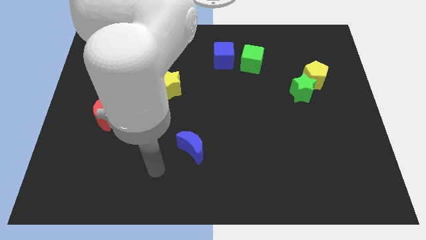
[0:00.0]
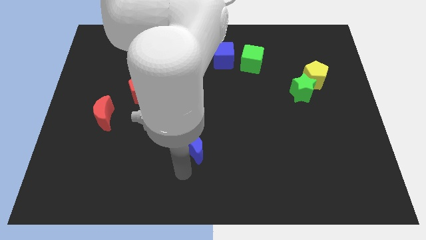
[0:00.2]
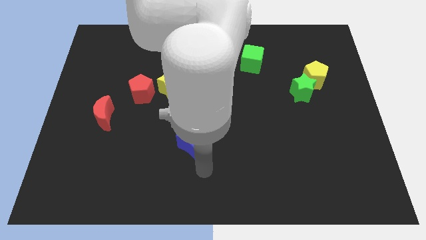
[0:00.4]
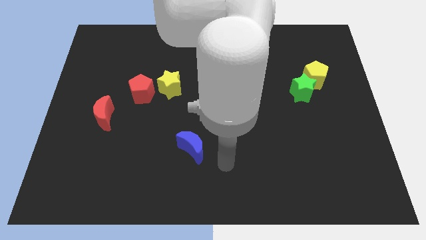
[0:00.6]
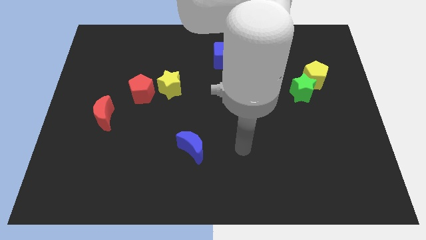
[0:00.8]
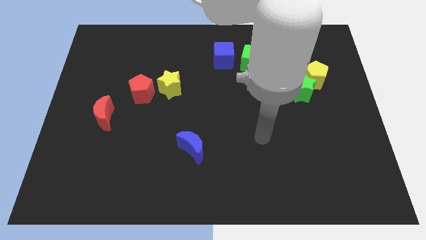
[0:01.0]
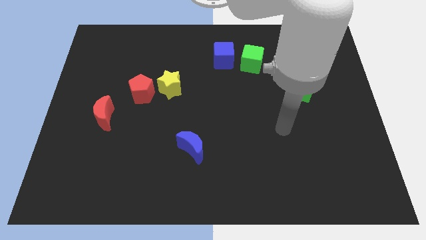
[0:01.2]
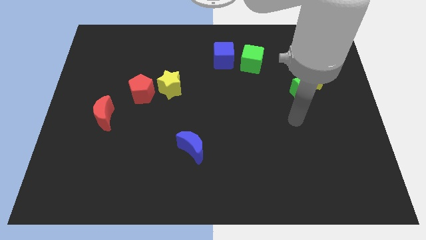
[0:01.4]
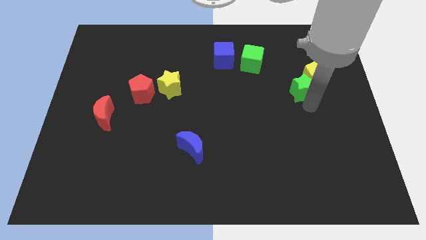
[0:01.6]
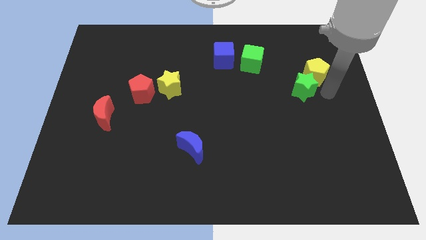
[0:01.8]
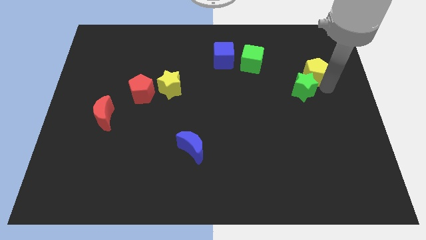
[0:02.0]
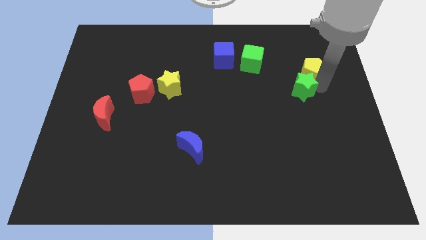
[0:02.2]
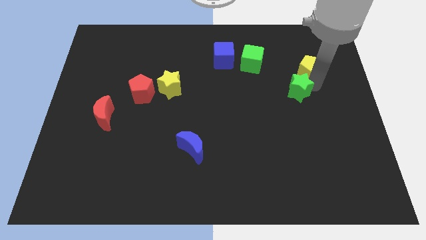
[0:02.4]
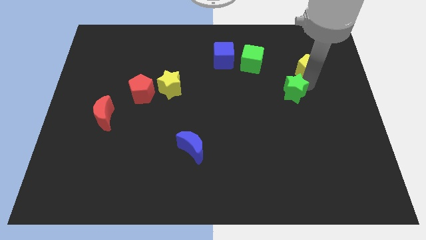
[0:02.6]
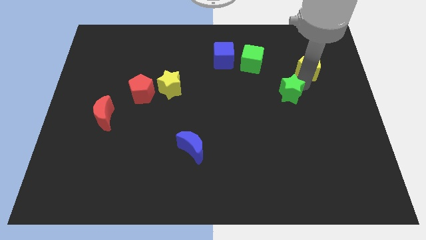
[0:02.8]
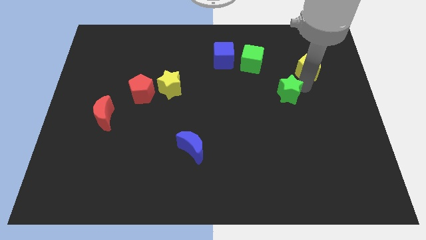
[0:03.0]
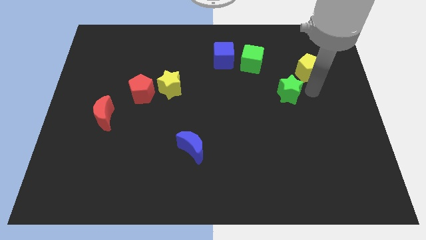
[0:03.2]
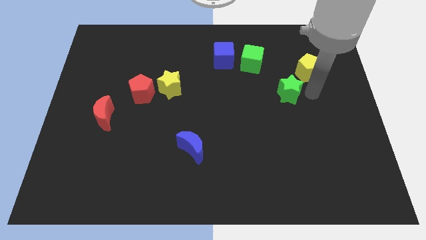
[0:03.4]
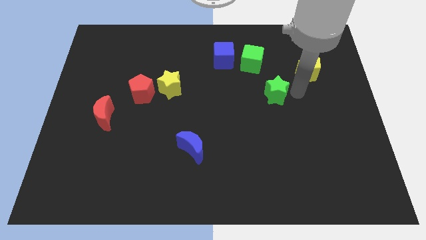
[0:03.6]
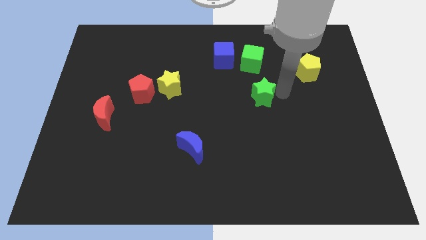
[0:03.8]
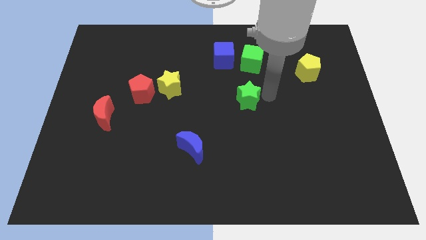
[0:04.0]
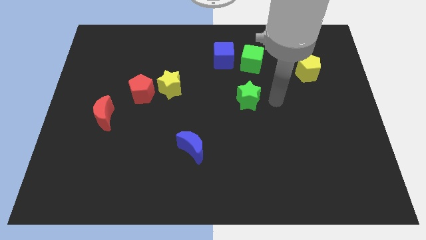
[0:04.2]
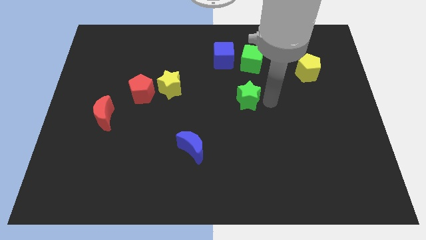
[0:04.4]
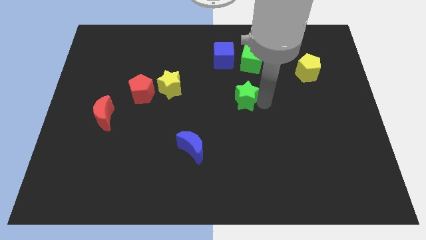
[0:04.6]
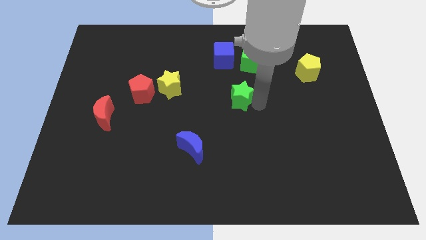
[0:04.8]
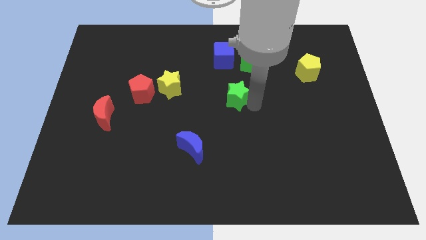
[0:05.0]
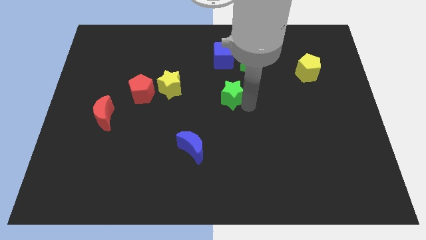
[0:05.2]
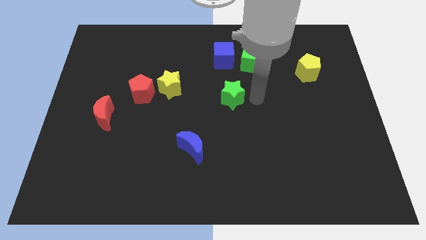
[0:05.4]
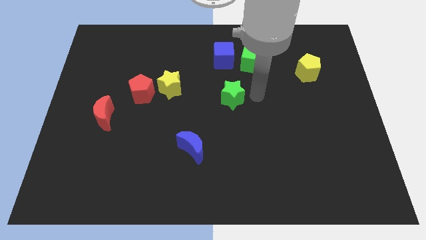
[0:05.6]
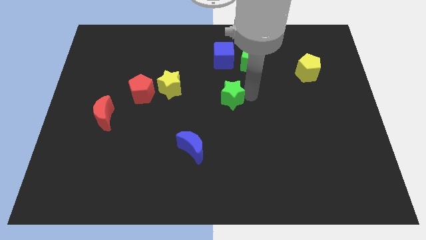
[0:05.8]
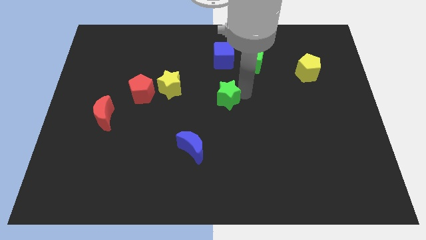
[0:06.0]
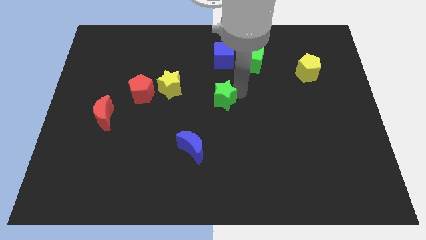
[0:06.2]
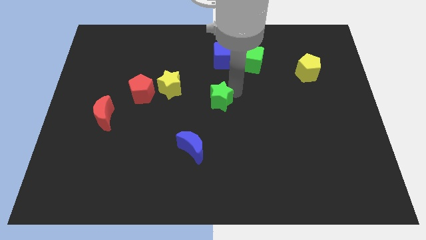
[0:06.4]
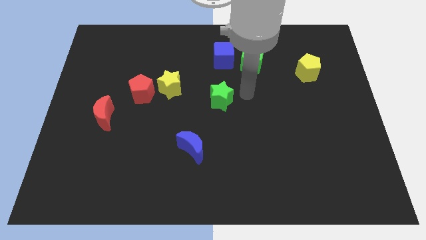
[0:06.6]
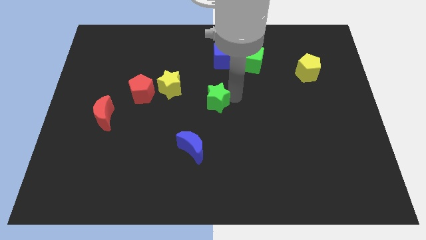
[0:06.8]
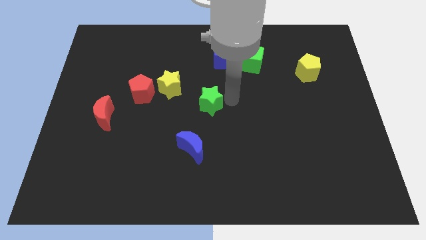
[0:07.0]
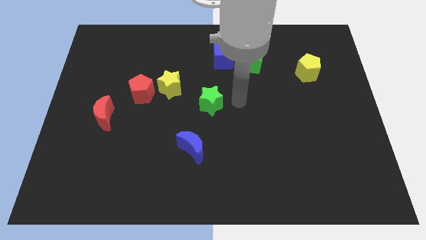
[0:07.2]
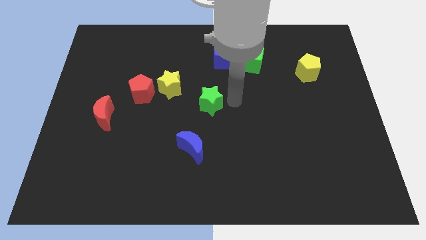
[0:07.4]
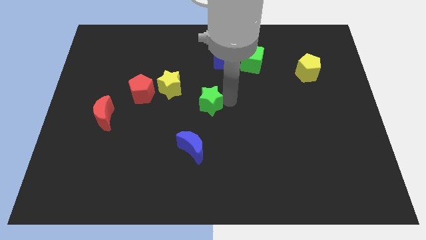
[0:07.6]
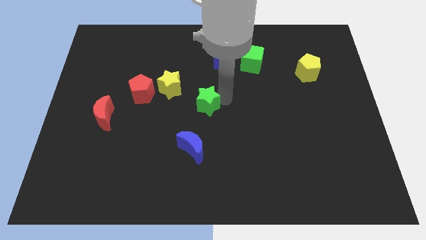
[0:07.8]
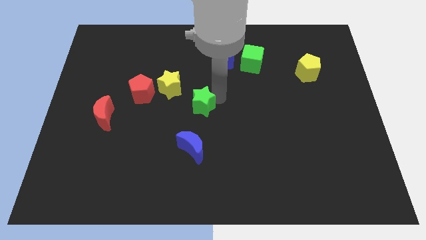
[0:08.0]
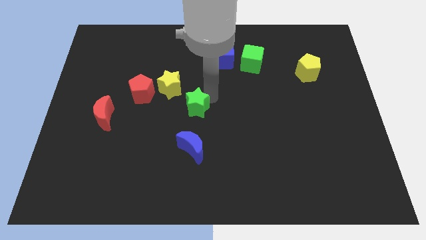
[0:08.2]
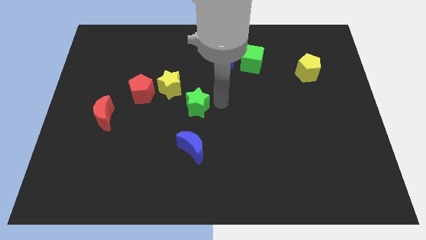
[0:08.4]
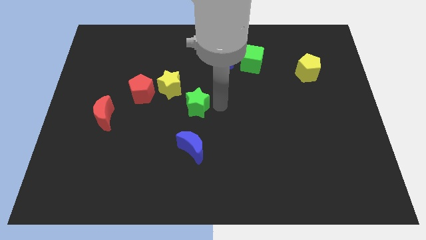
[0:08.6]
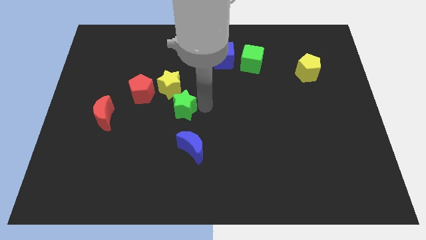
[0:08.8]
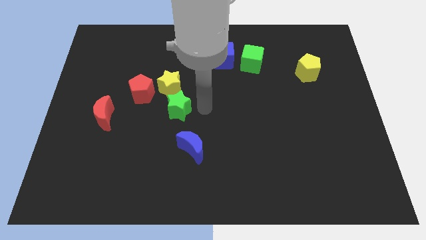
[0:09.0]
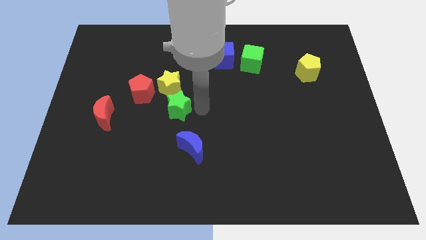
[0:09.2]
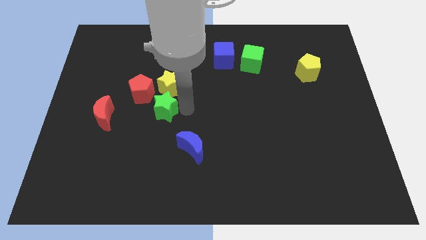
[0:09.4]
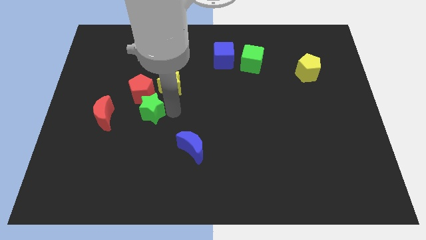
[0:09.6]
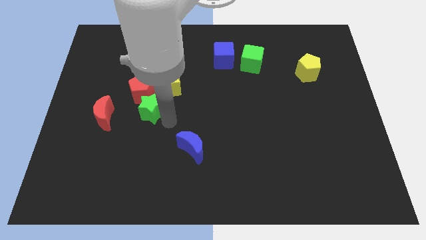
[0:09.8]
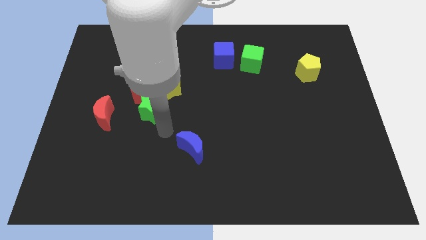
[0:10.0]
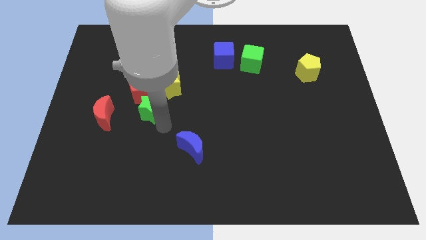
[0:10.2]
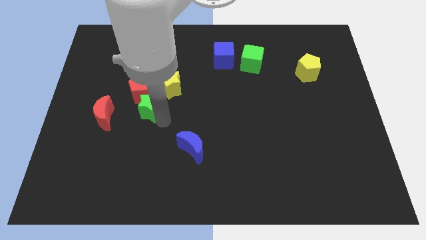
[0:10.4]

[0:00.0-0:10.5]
move the green star close to the red pentagon

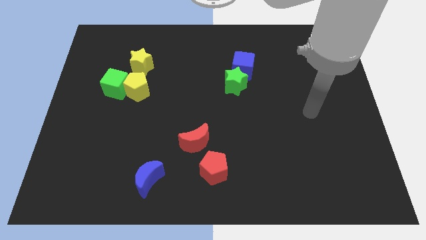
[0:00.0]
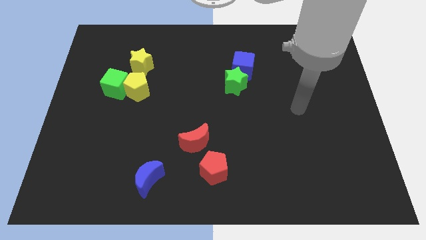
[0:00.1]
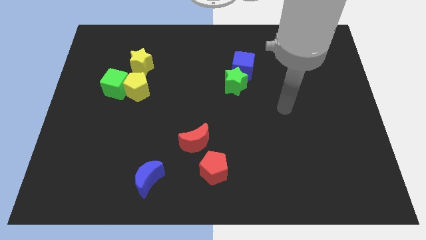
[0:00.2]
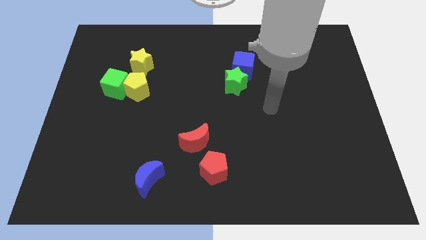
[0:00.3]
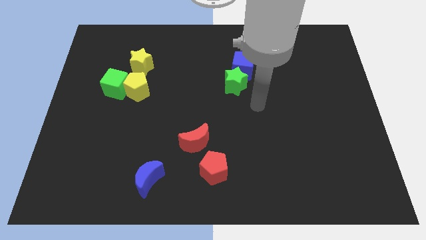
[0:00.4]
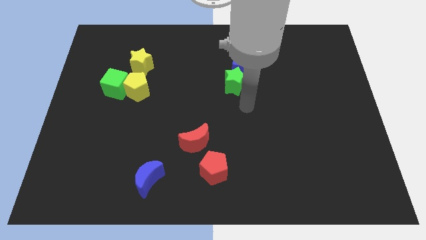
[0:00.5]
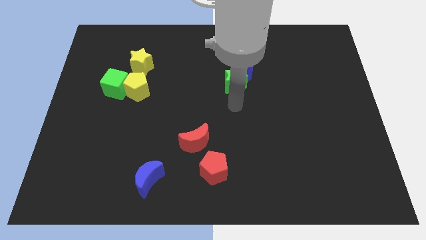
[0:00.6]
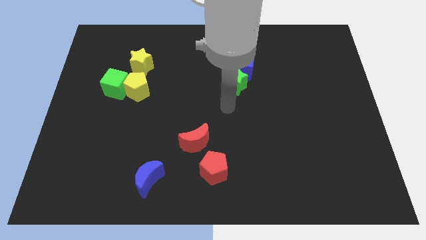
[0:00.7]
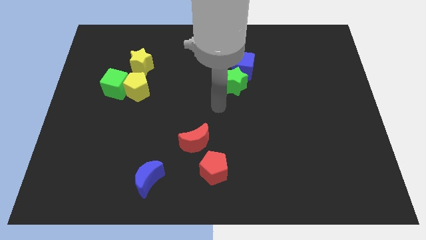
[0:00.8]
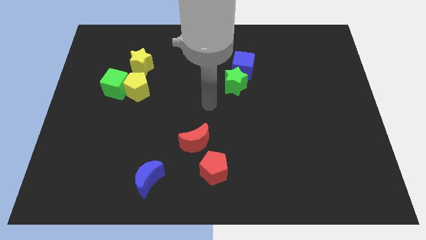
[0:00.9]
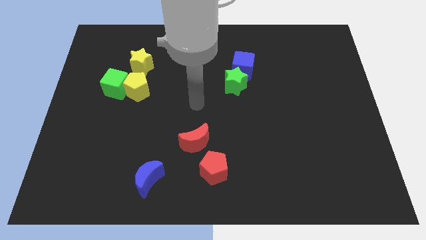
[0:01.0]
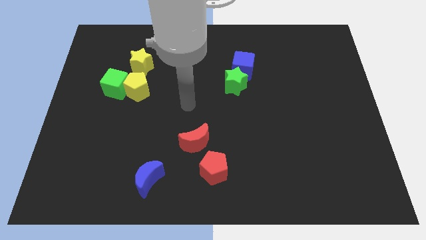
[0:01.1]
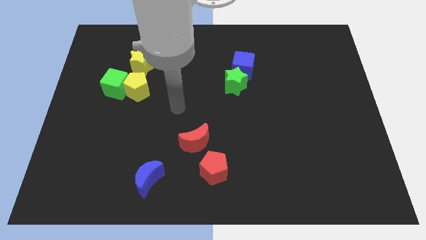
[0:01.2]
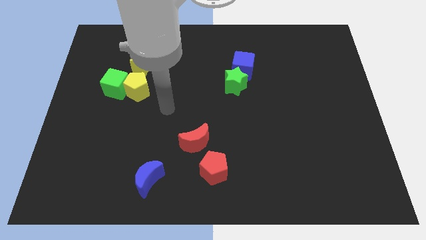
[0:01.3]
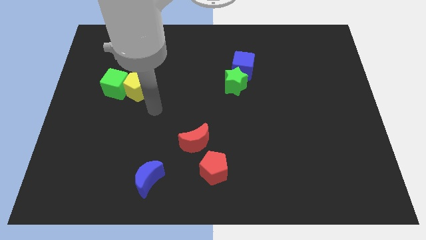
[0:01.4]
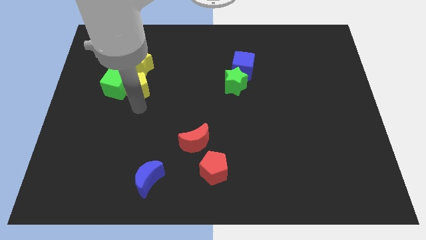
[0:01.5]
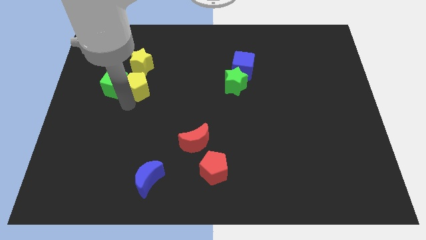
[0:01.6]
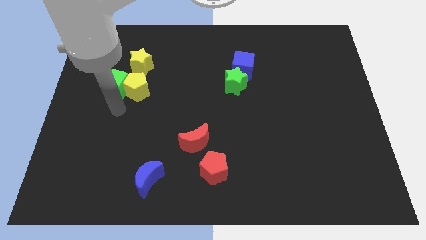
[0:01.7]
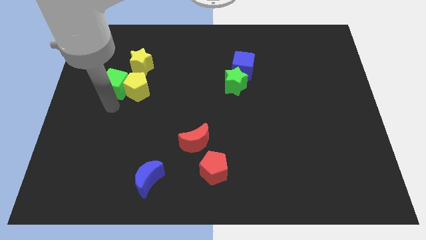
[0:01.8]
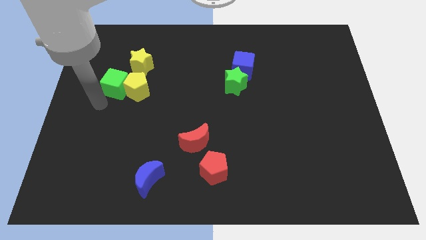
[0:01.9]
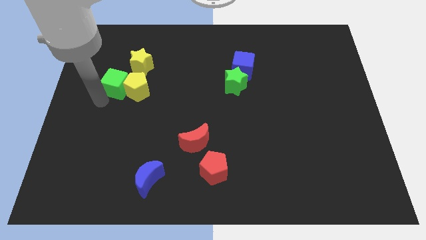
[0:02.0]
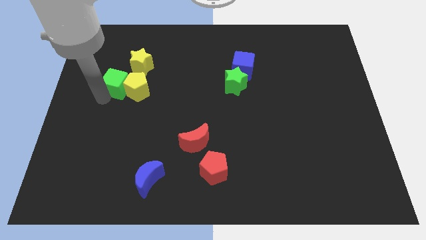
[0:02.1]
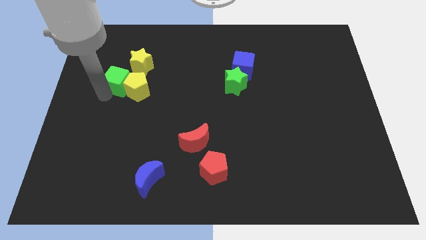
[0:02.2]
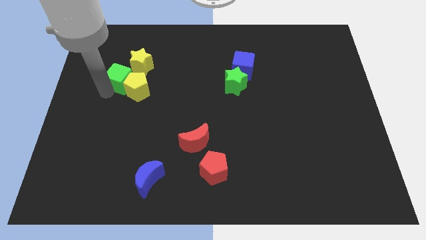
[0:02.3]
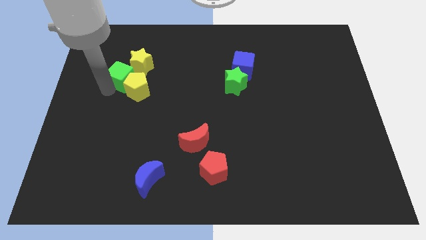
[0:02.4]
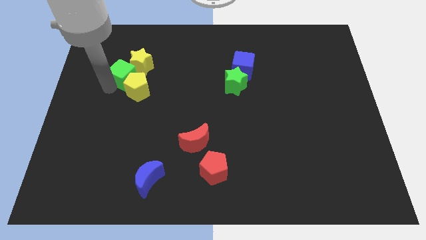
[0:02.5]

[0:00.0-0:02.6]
slide the green cube next to the yellow star
